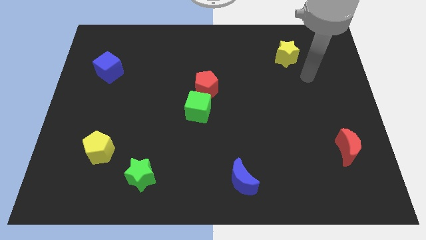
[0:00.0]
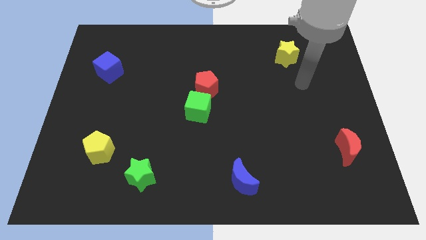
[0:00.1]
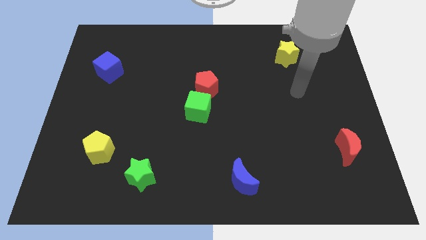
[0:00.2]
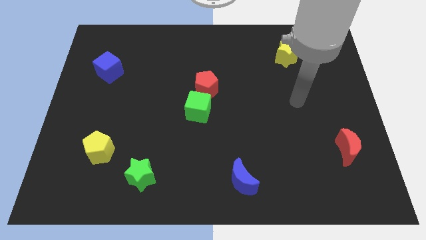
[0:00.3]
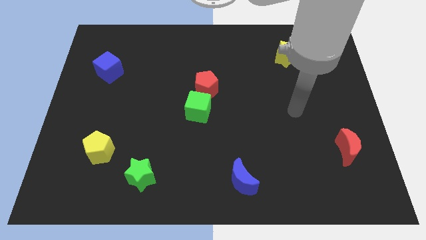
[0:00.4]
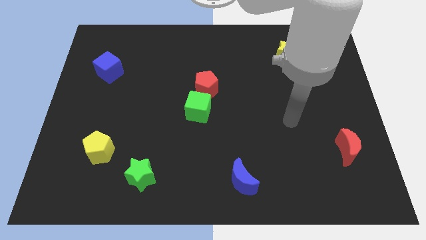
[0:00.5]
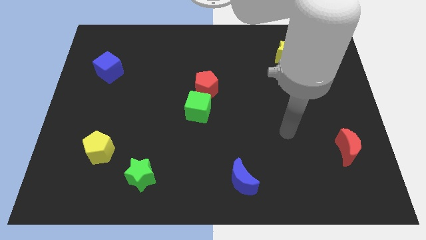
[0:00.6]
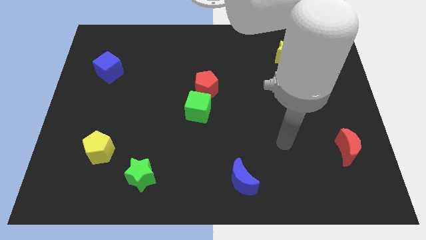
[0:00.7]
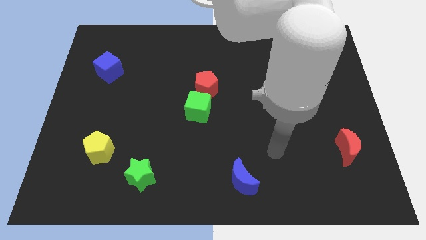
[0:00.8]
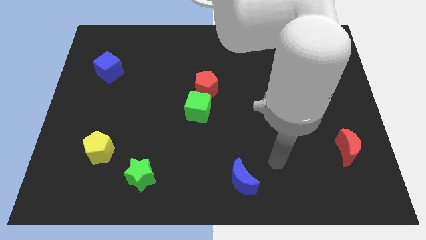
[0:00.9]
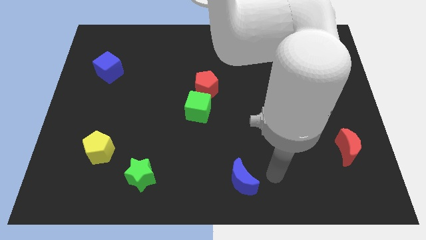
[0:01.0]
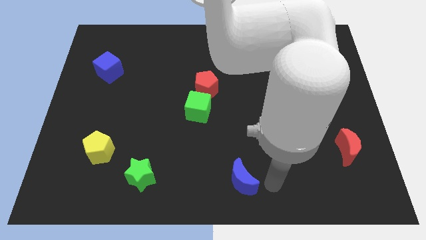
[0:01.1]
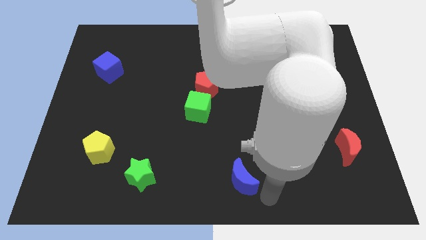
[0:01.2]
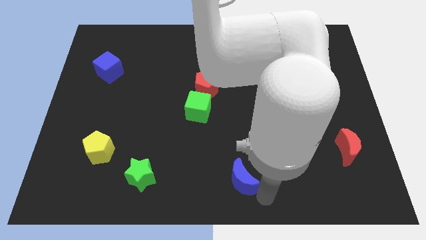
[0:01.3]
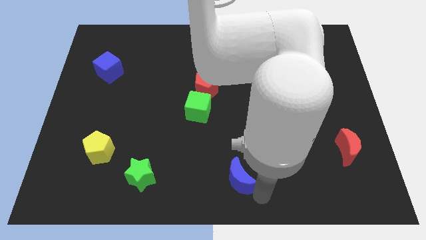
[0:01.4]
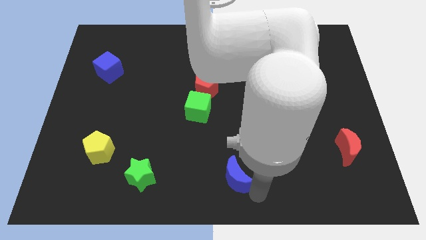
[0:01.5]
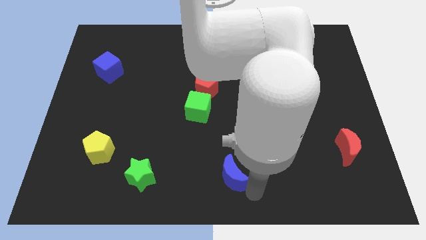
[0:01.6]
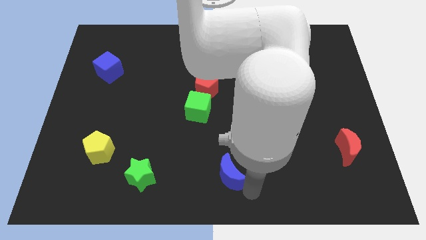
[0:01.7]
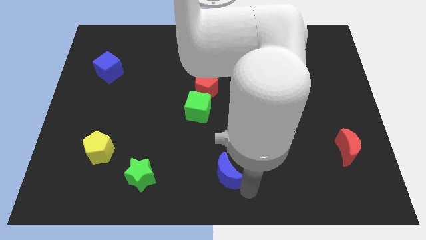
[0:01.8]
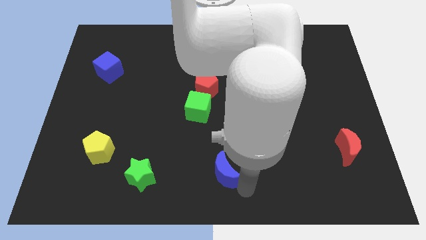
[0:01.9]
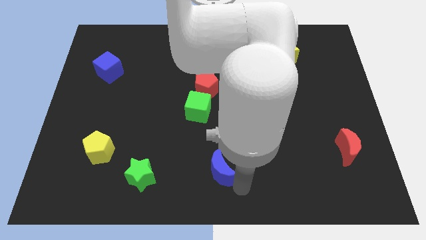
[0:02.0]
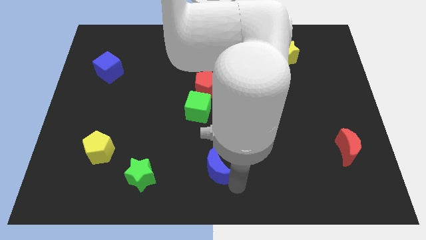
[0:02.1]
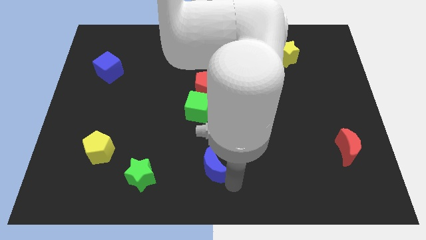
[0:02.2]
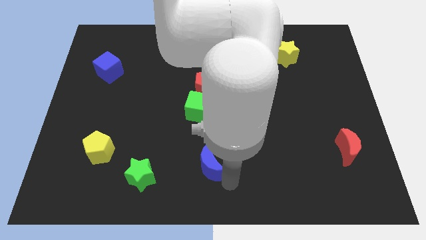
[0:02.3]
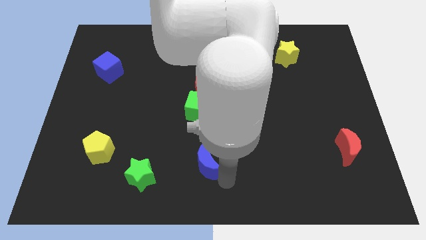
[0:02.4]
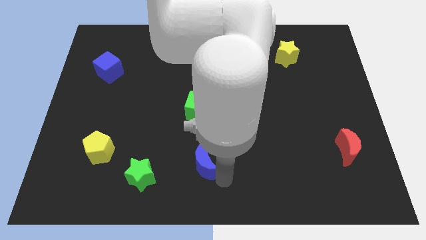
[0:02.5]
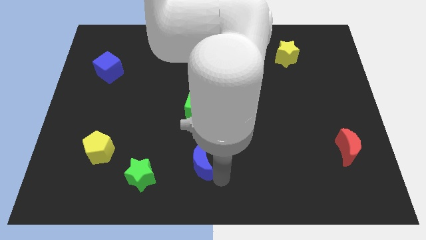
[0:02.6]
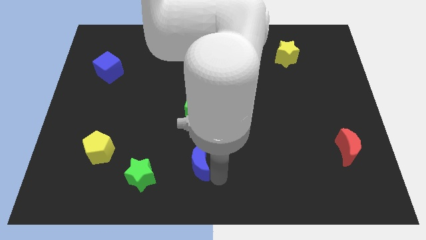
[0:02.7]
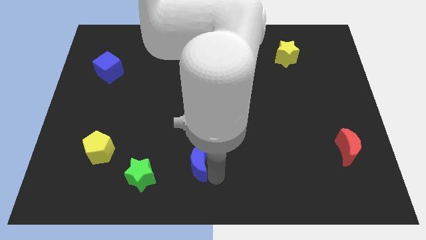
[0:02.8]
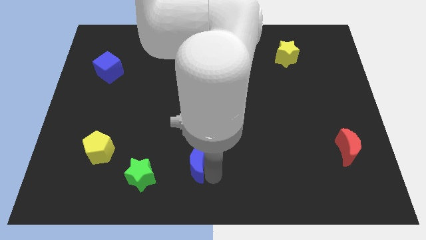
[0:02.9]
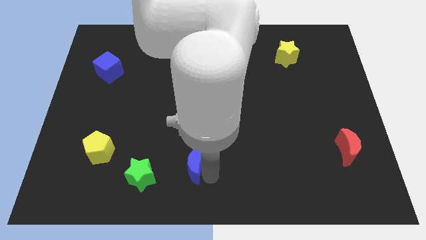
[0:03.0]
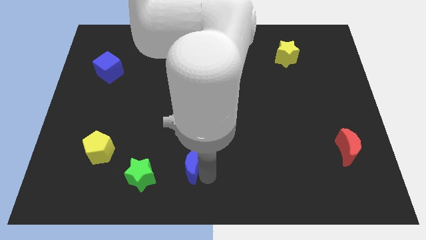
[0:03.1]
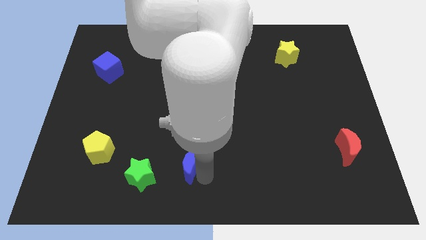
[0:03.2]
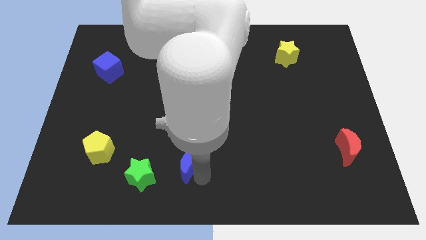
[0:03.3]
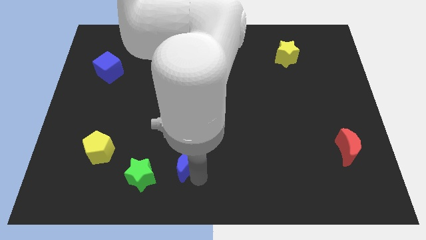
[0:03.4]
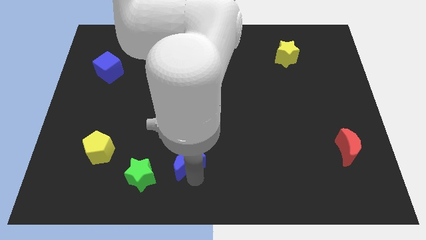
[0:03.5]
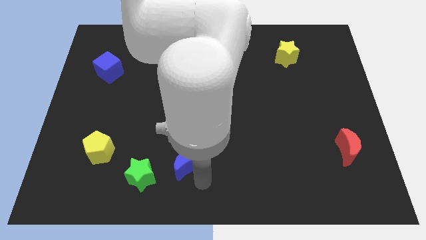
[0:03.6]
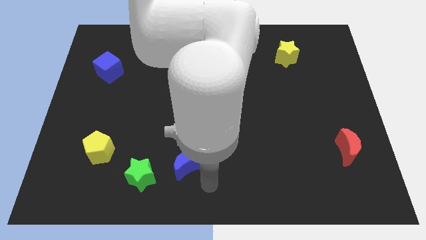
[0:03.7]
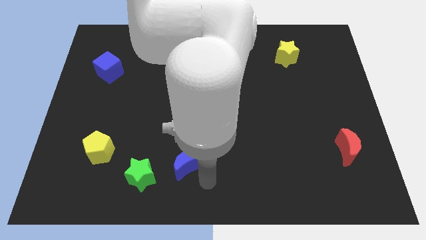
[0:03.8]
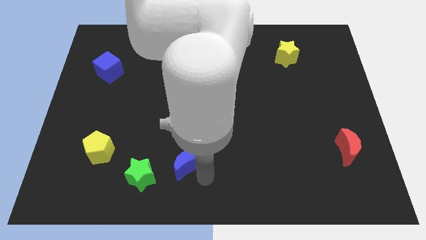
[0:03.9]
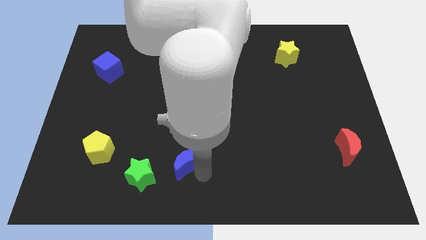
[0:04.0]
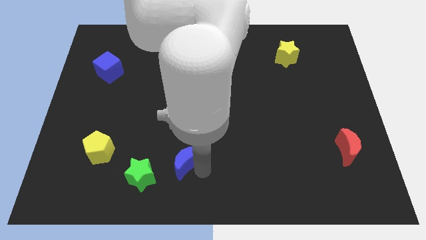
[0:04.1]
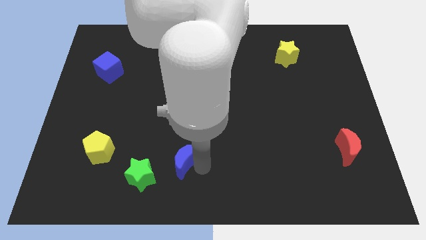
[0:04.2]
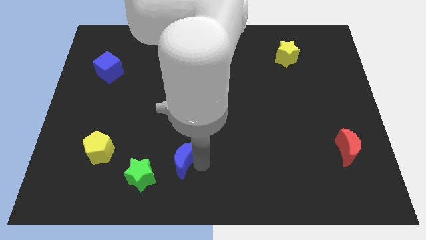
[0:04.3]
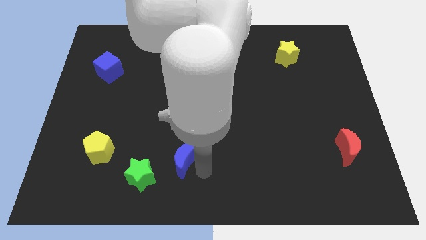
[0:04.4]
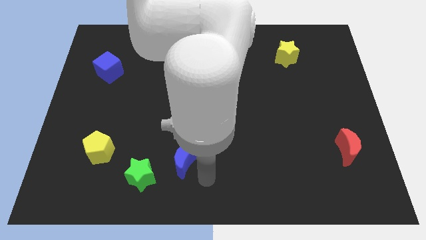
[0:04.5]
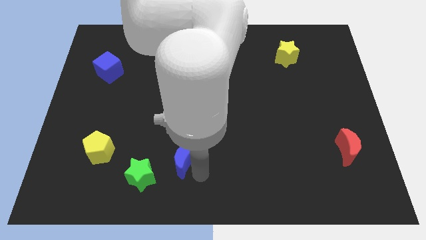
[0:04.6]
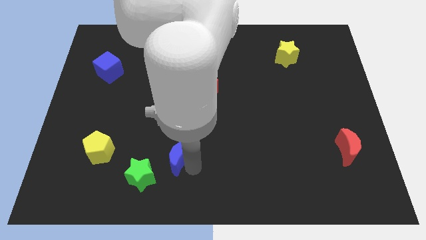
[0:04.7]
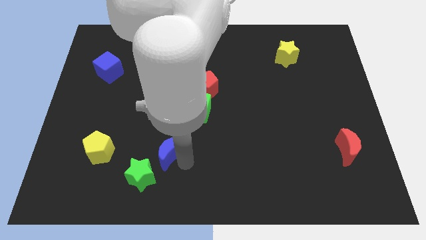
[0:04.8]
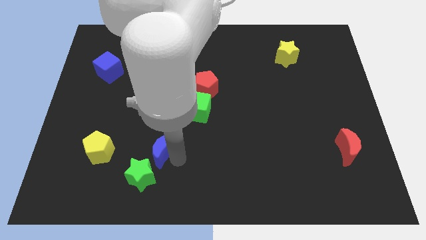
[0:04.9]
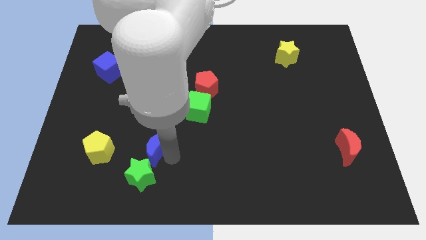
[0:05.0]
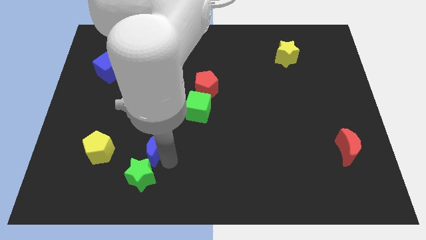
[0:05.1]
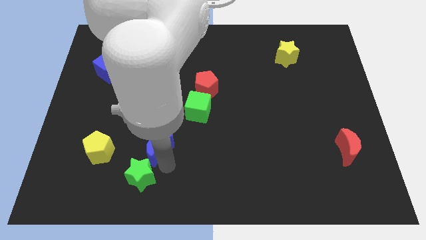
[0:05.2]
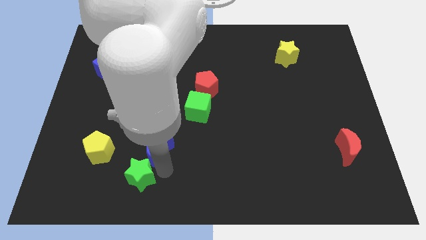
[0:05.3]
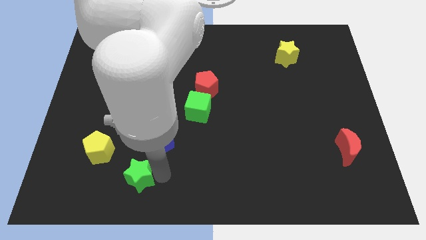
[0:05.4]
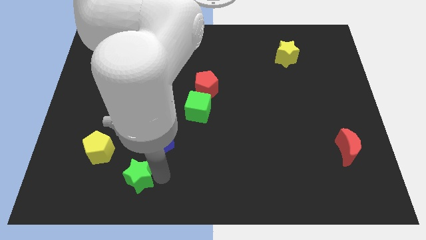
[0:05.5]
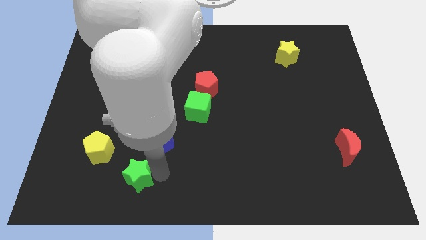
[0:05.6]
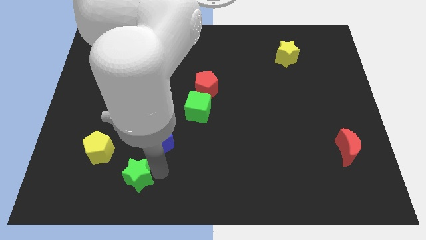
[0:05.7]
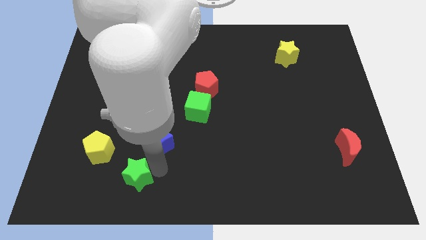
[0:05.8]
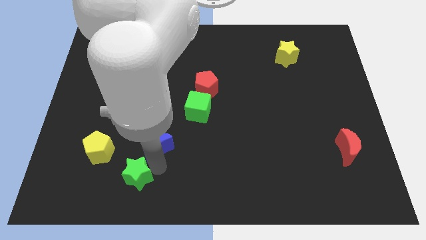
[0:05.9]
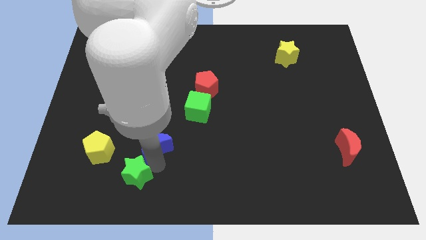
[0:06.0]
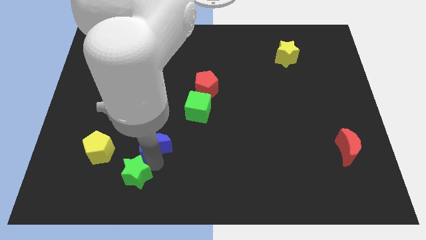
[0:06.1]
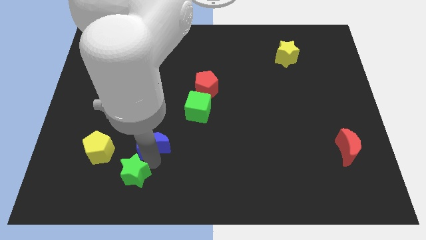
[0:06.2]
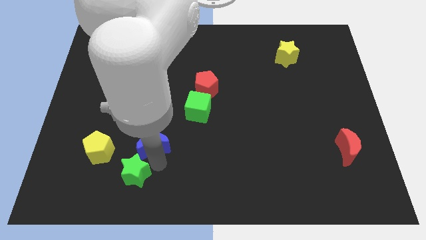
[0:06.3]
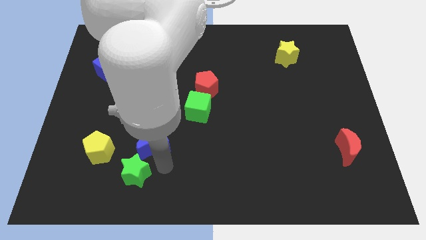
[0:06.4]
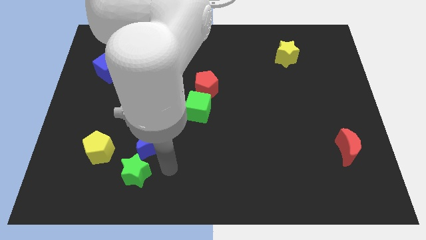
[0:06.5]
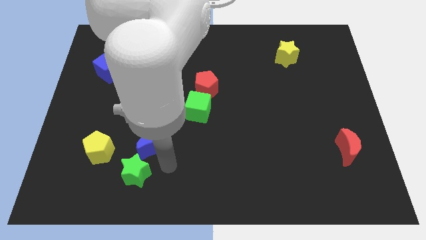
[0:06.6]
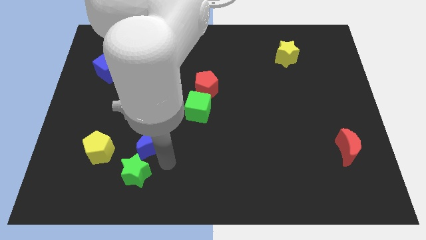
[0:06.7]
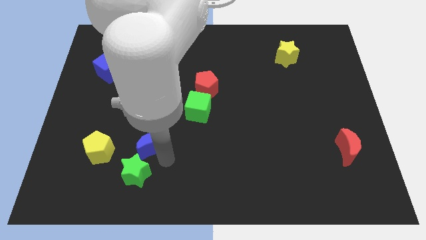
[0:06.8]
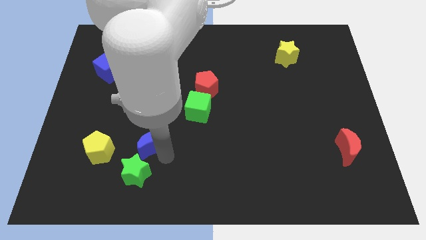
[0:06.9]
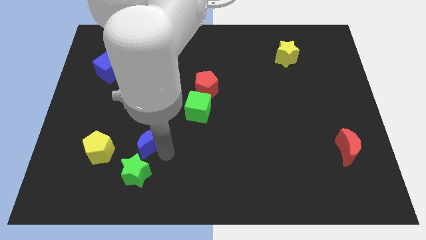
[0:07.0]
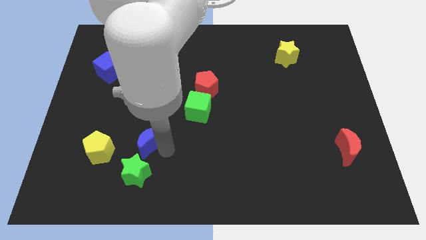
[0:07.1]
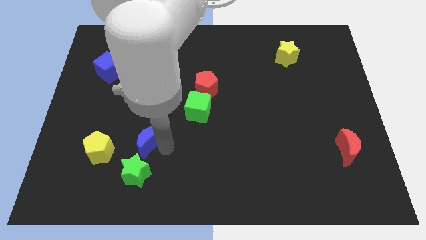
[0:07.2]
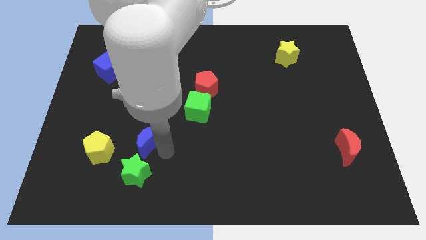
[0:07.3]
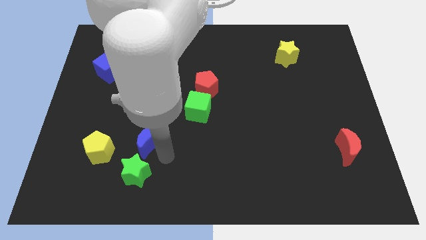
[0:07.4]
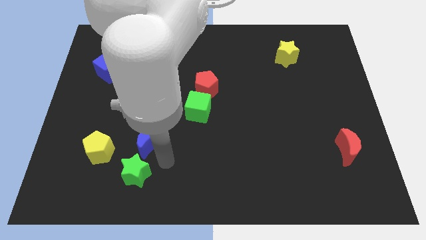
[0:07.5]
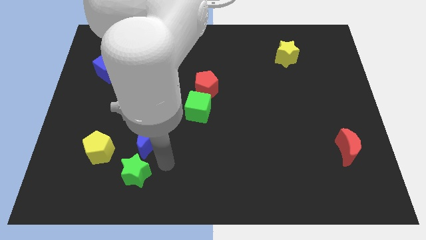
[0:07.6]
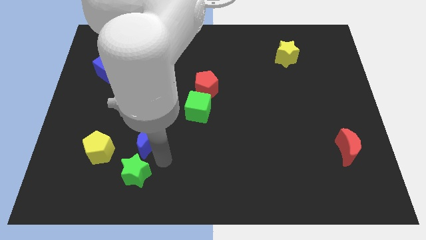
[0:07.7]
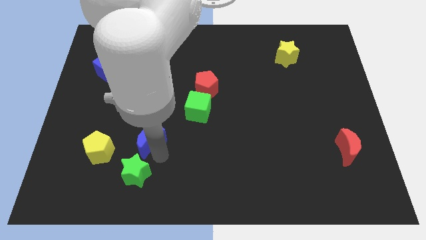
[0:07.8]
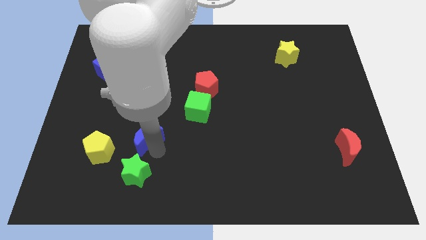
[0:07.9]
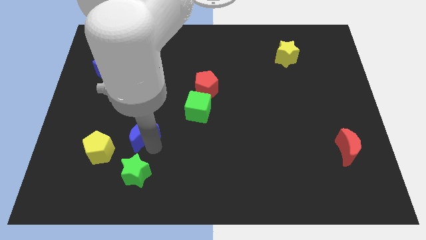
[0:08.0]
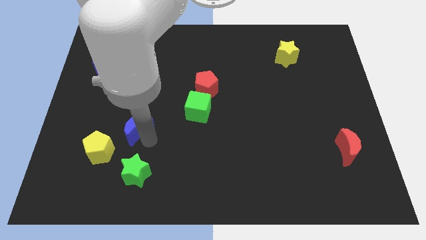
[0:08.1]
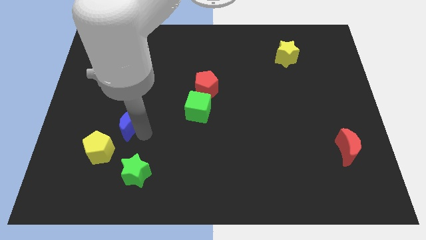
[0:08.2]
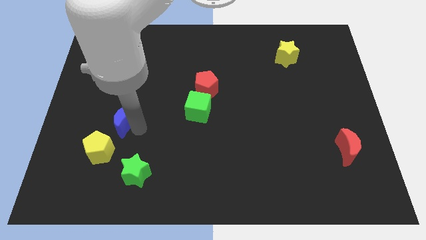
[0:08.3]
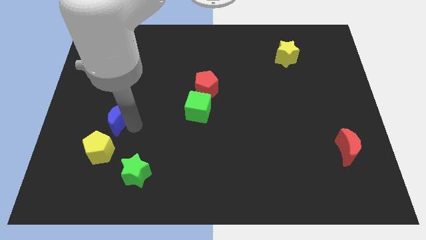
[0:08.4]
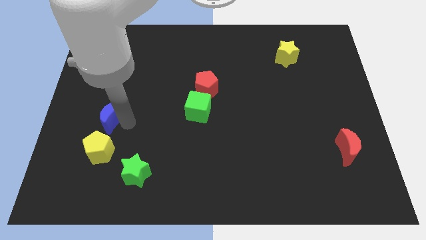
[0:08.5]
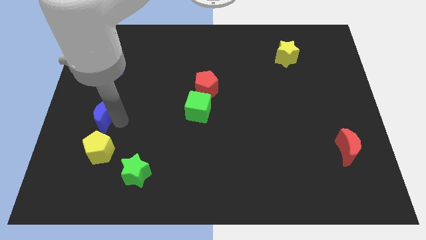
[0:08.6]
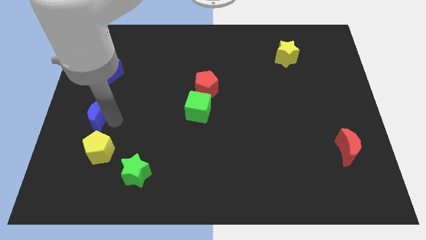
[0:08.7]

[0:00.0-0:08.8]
put the blue moon to the left side of the board
